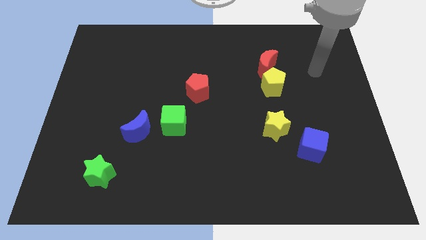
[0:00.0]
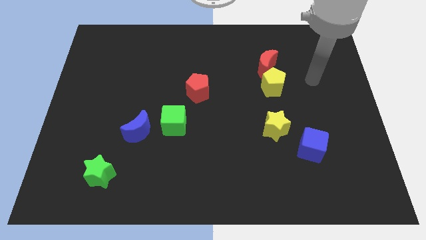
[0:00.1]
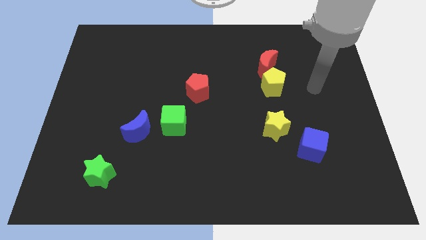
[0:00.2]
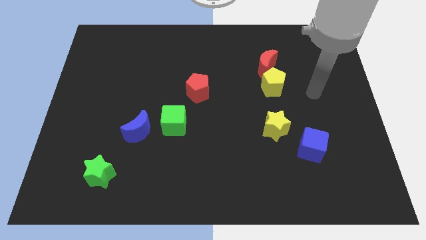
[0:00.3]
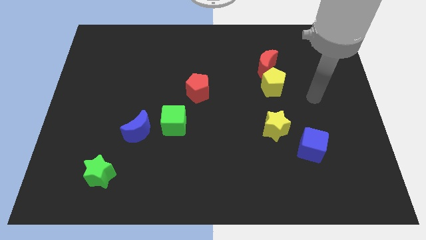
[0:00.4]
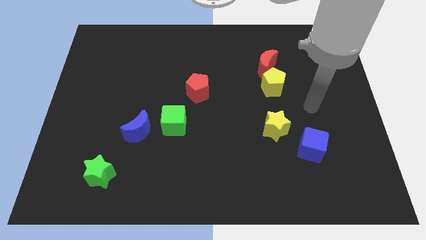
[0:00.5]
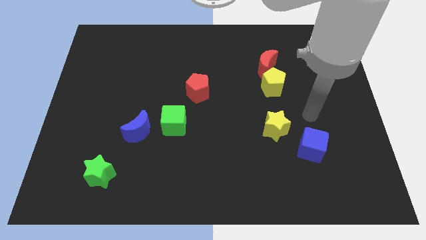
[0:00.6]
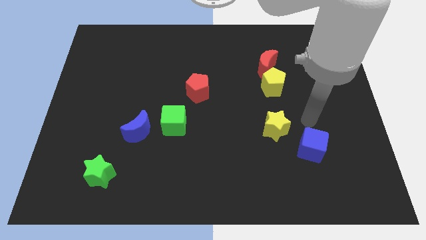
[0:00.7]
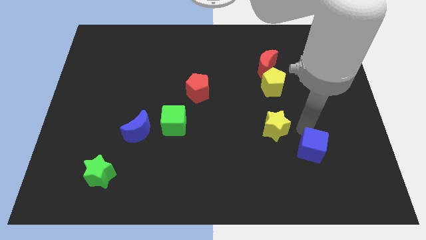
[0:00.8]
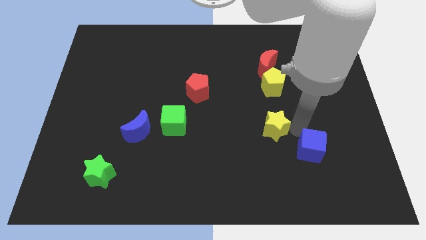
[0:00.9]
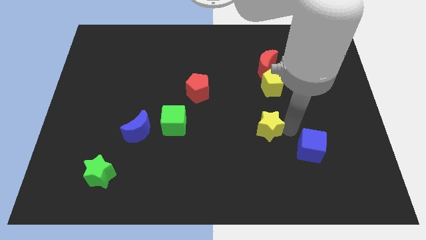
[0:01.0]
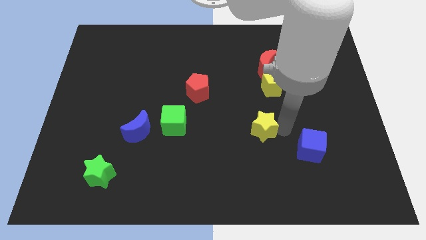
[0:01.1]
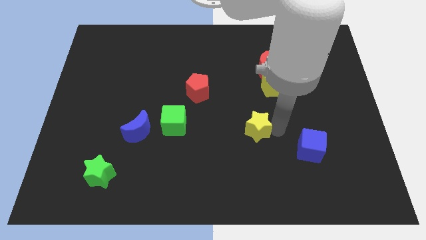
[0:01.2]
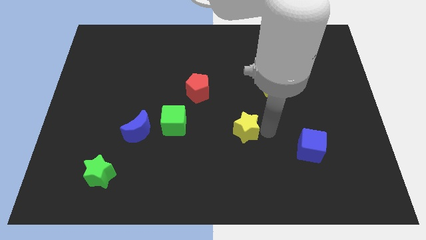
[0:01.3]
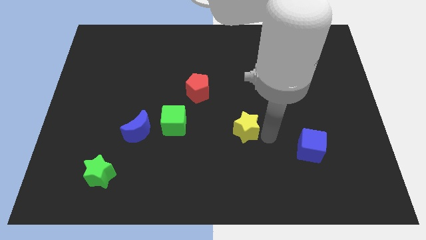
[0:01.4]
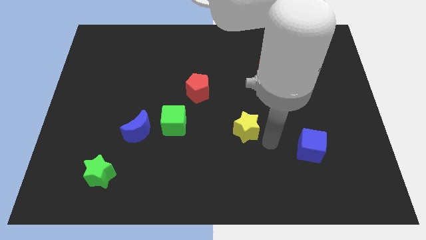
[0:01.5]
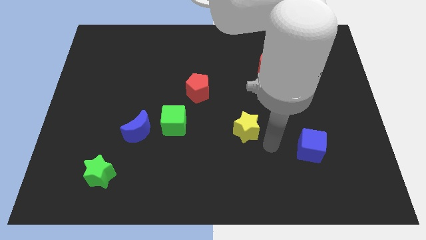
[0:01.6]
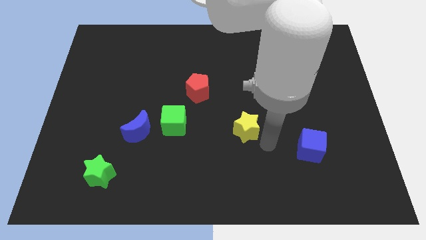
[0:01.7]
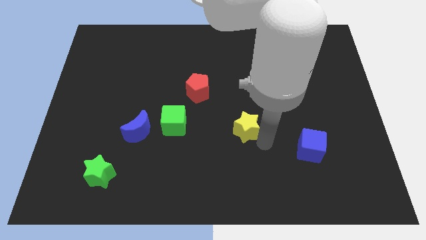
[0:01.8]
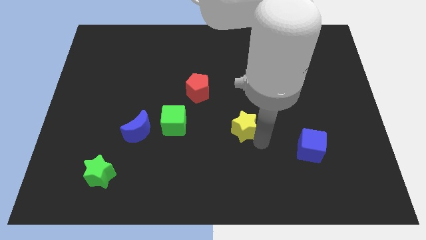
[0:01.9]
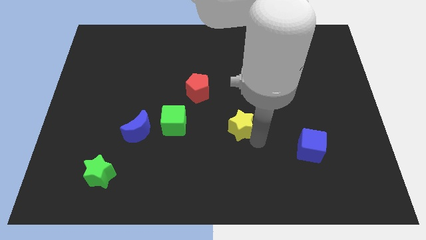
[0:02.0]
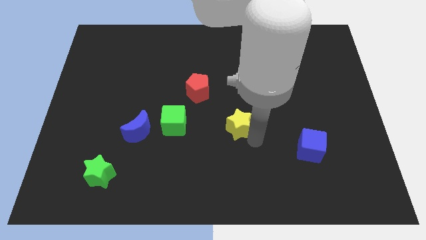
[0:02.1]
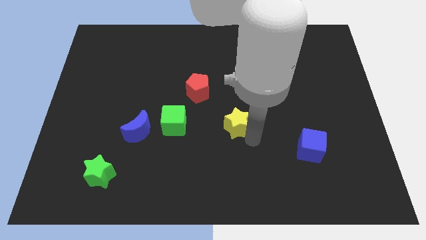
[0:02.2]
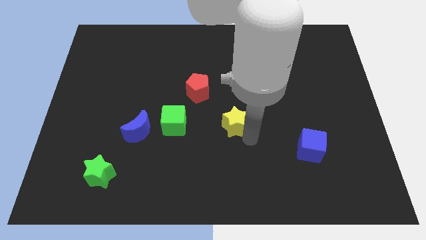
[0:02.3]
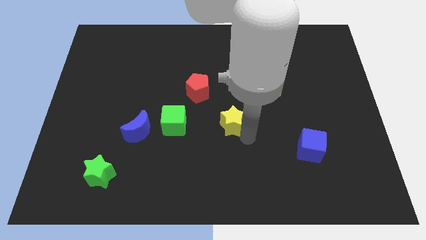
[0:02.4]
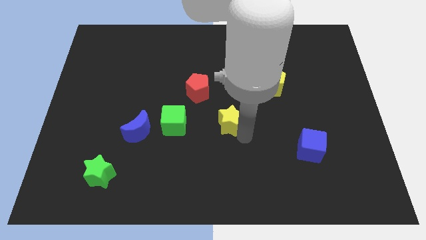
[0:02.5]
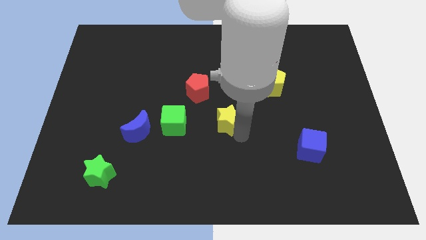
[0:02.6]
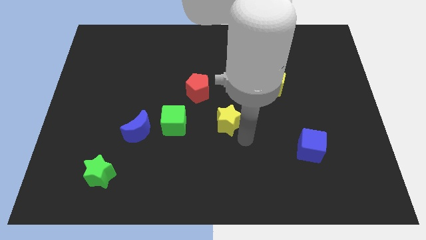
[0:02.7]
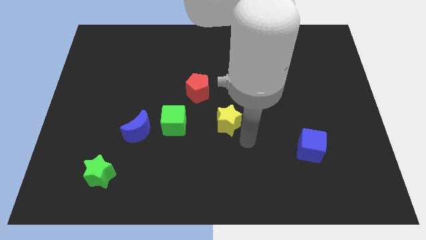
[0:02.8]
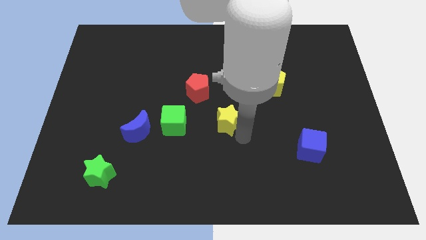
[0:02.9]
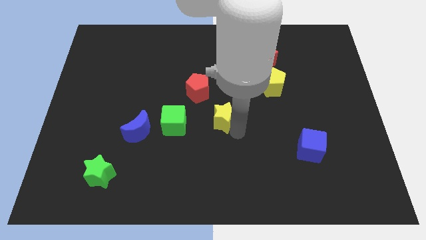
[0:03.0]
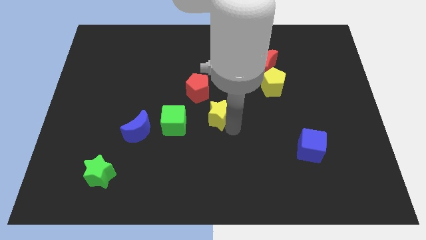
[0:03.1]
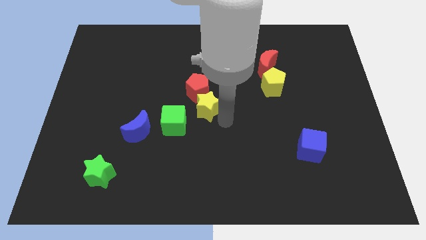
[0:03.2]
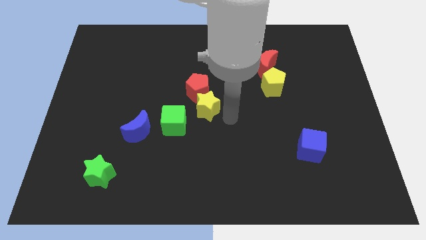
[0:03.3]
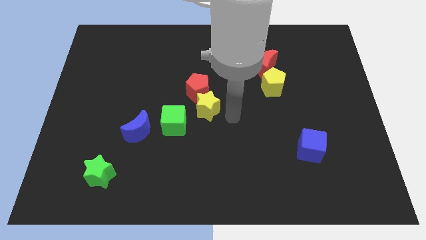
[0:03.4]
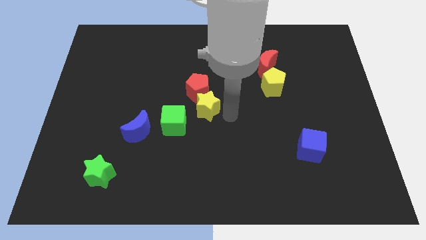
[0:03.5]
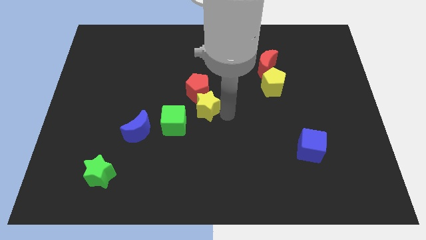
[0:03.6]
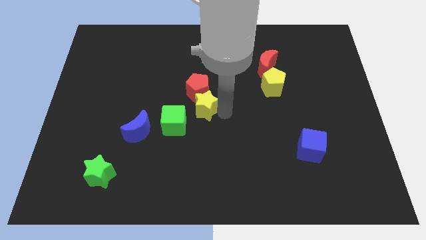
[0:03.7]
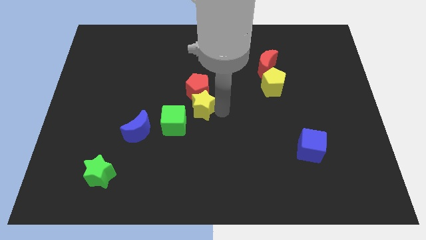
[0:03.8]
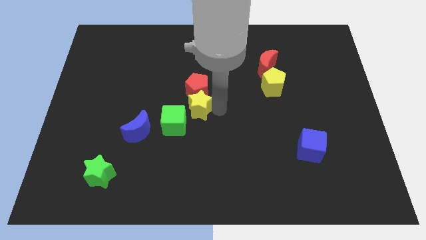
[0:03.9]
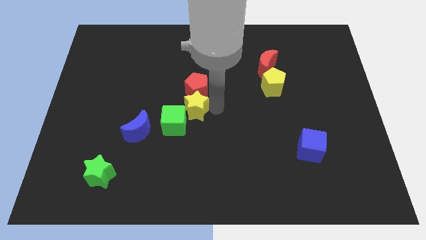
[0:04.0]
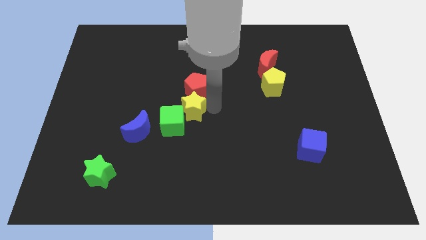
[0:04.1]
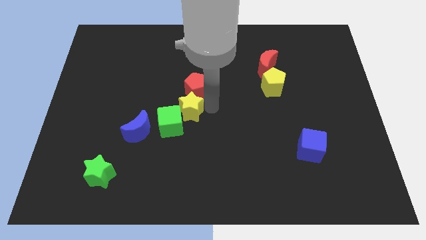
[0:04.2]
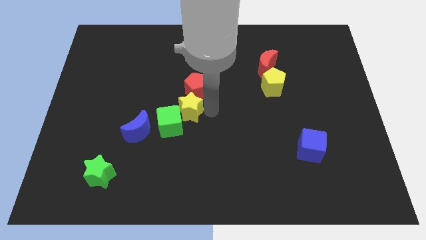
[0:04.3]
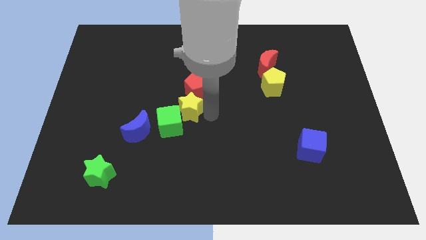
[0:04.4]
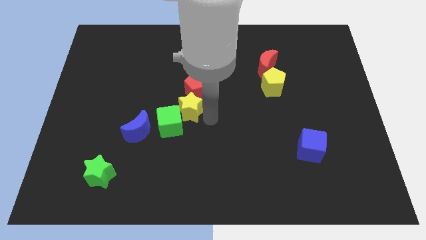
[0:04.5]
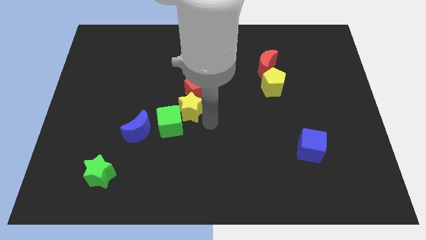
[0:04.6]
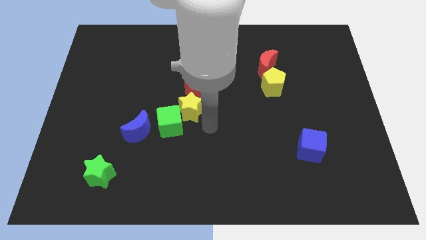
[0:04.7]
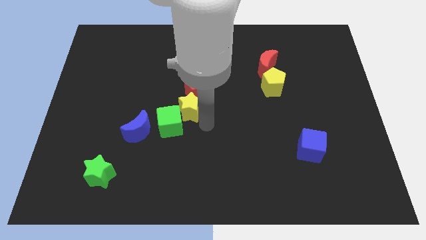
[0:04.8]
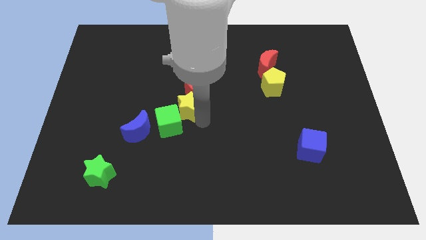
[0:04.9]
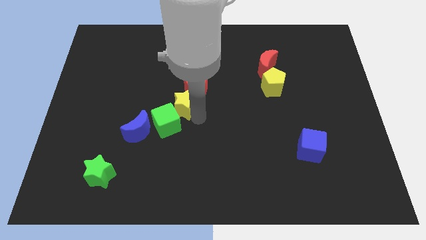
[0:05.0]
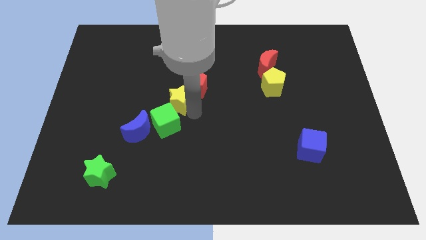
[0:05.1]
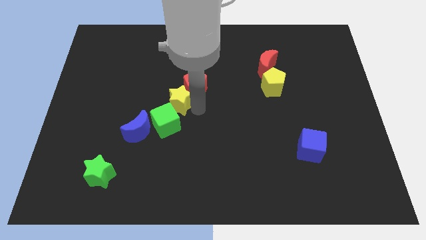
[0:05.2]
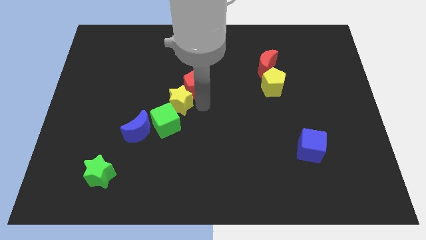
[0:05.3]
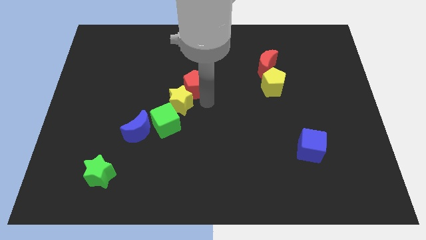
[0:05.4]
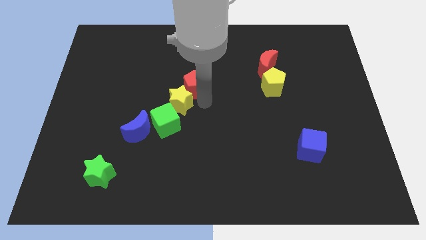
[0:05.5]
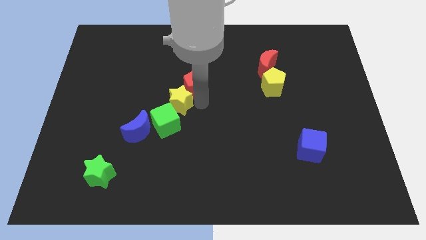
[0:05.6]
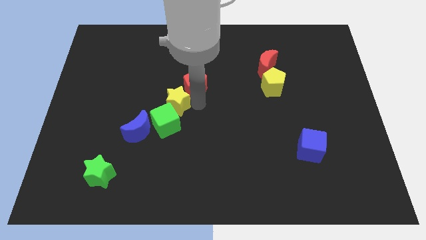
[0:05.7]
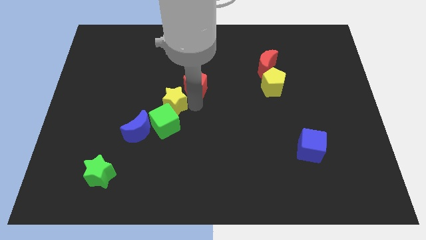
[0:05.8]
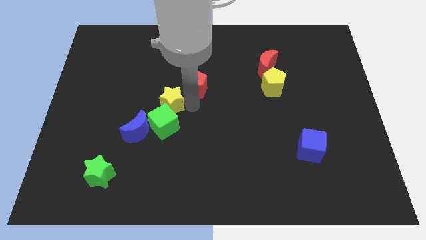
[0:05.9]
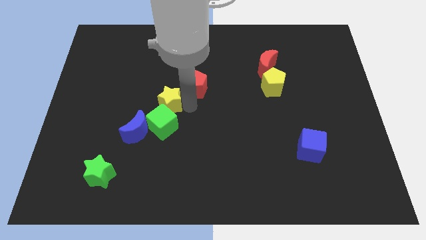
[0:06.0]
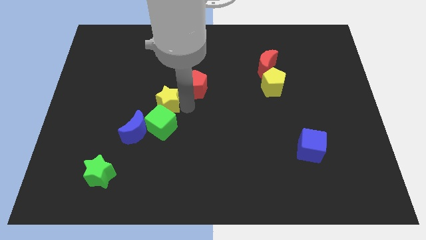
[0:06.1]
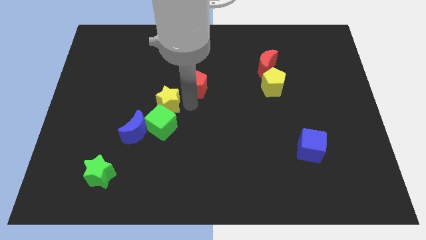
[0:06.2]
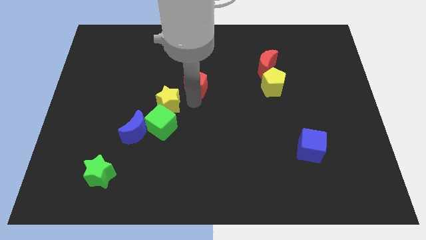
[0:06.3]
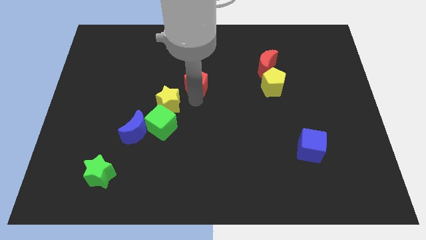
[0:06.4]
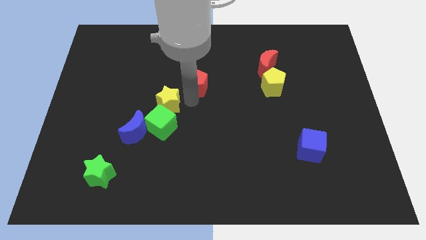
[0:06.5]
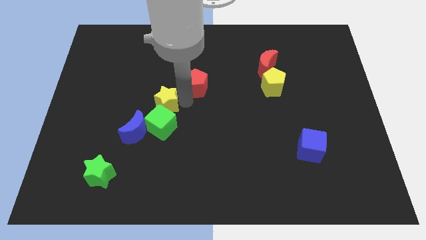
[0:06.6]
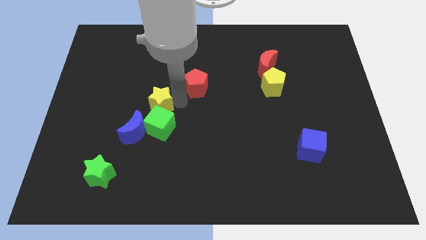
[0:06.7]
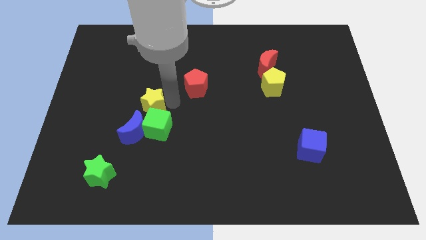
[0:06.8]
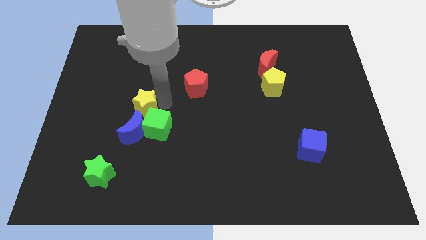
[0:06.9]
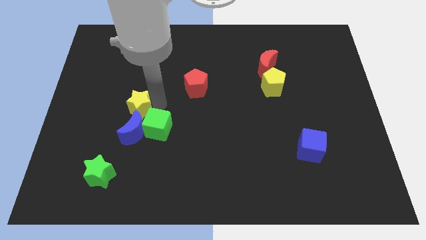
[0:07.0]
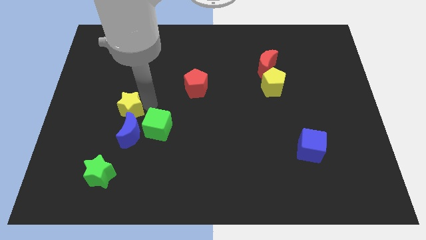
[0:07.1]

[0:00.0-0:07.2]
move the yellow star just left of the green cube
